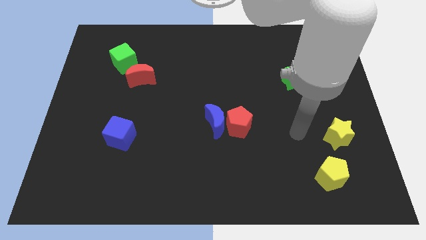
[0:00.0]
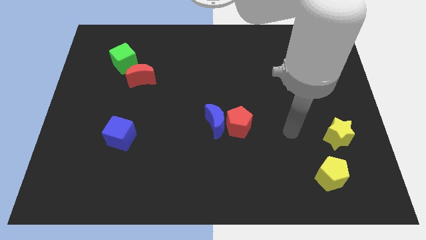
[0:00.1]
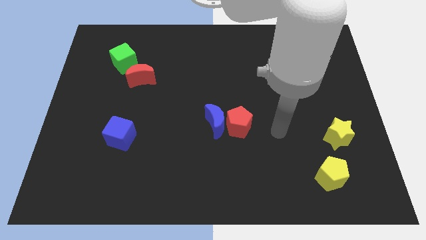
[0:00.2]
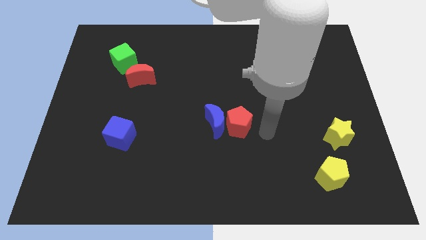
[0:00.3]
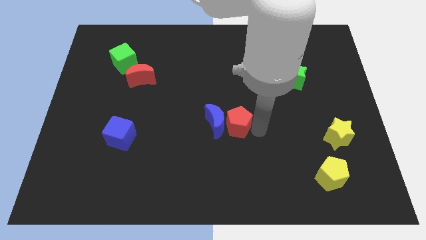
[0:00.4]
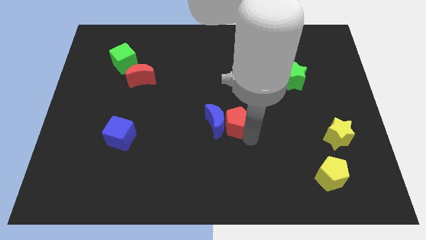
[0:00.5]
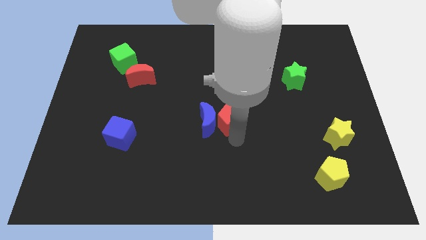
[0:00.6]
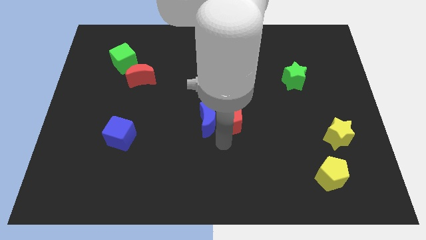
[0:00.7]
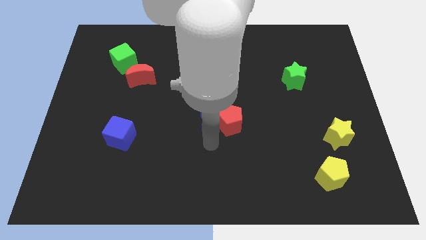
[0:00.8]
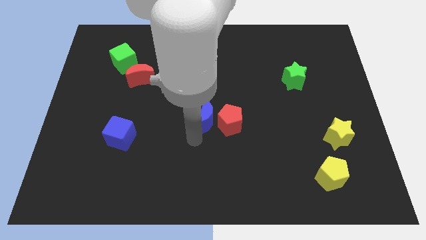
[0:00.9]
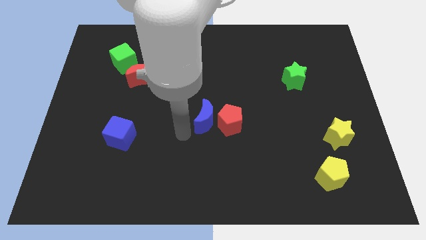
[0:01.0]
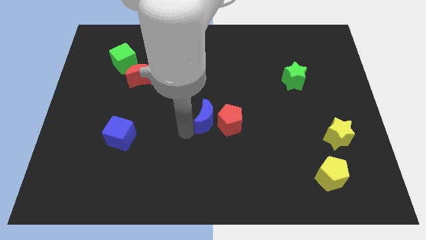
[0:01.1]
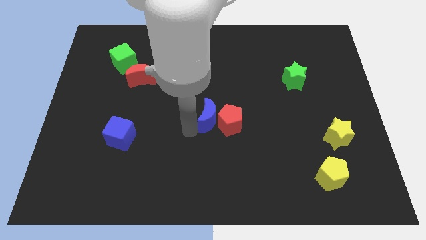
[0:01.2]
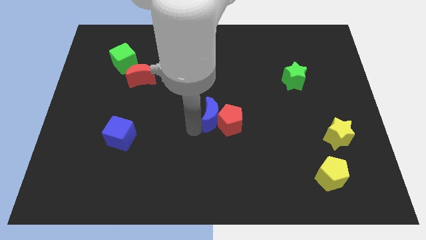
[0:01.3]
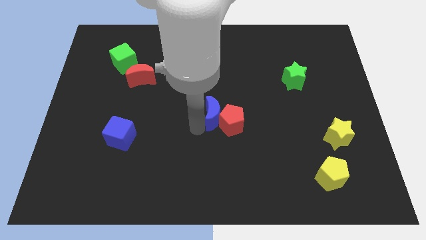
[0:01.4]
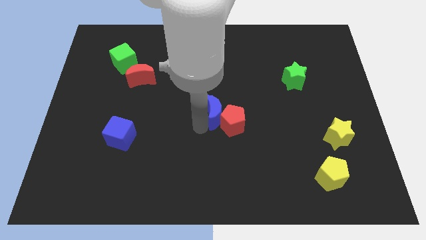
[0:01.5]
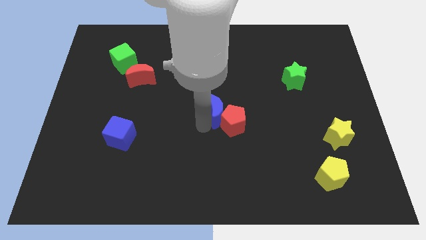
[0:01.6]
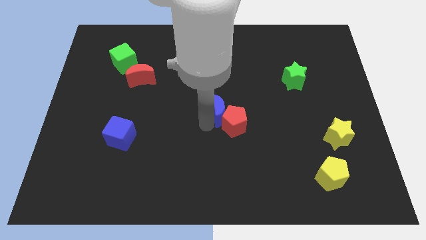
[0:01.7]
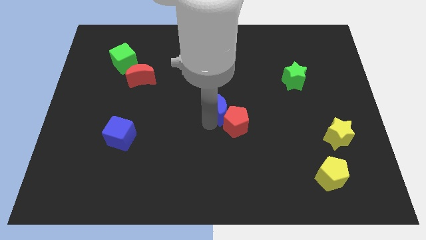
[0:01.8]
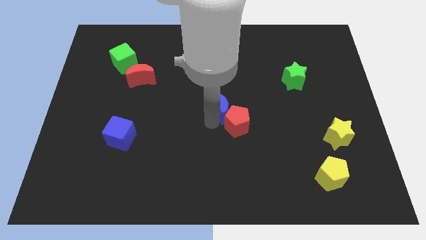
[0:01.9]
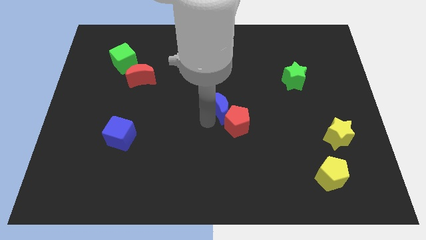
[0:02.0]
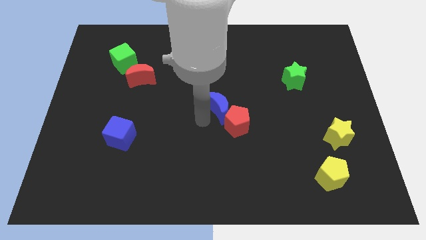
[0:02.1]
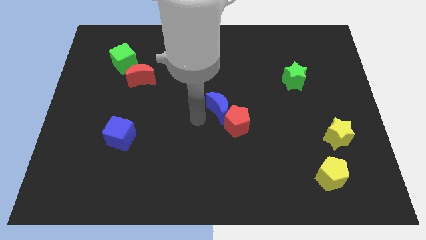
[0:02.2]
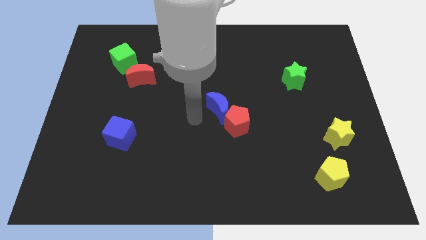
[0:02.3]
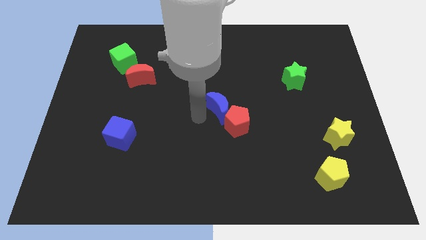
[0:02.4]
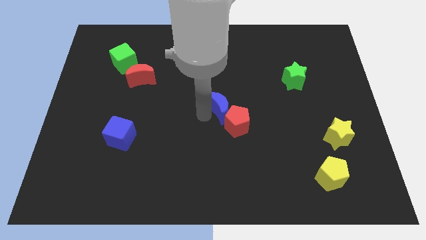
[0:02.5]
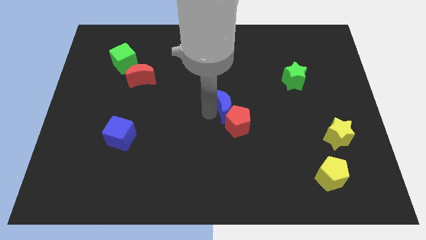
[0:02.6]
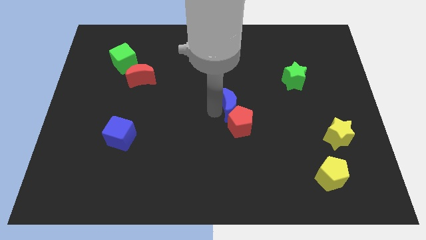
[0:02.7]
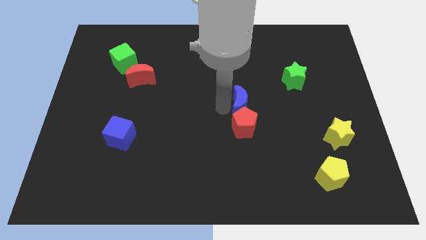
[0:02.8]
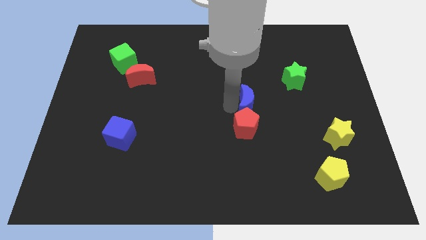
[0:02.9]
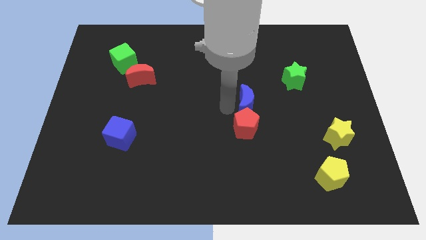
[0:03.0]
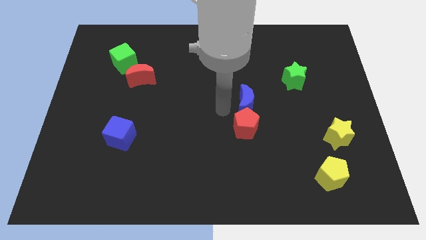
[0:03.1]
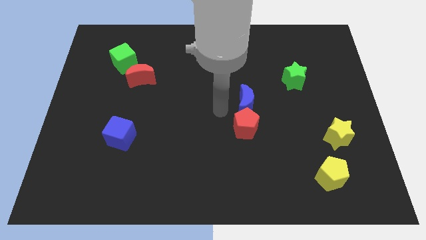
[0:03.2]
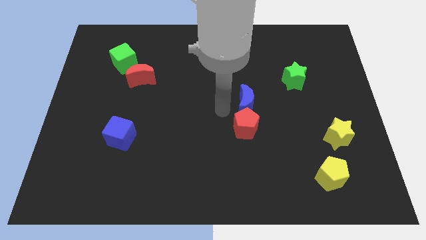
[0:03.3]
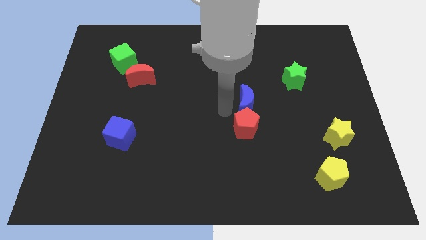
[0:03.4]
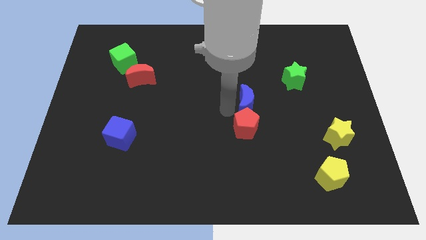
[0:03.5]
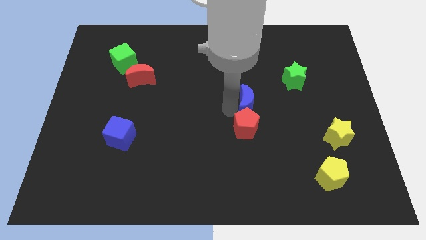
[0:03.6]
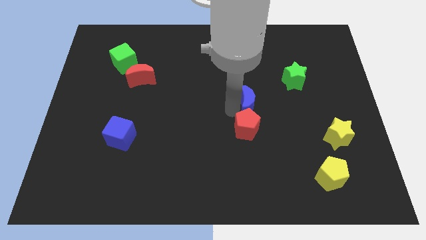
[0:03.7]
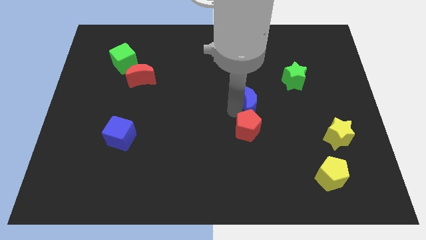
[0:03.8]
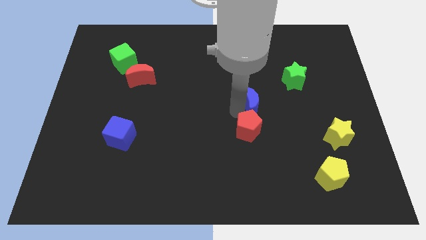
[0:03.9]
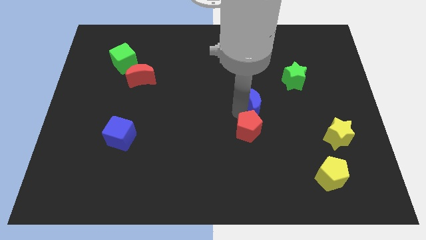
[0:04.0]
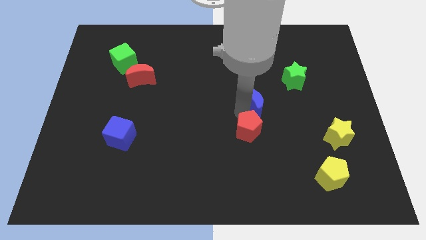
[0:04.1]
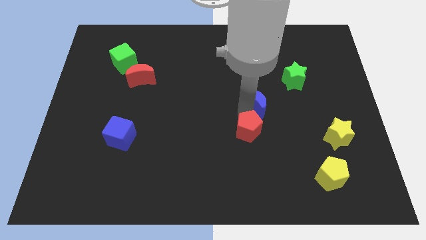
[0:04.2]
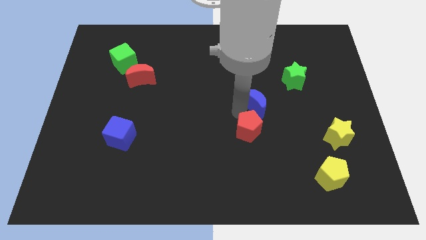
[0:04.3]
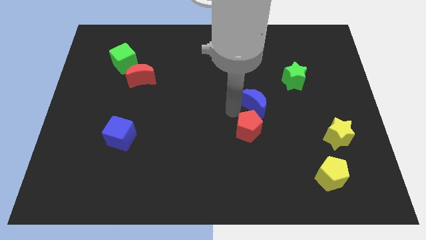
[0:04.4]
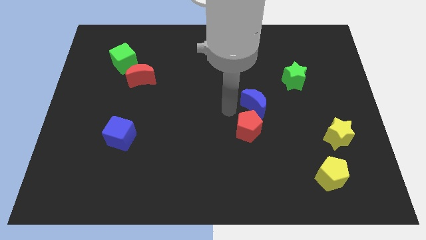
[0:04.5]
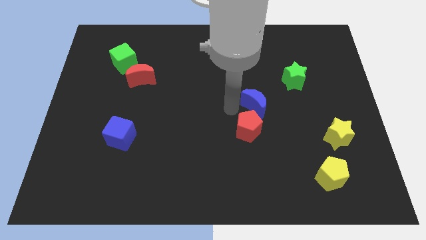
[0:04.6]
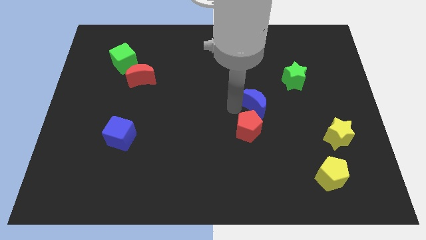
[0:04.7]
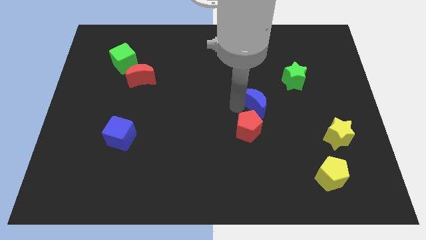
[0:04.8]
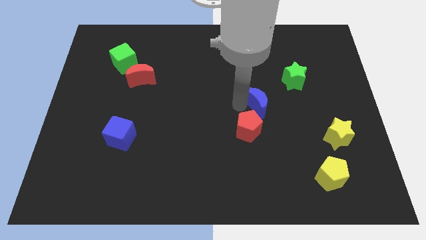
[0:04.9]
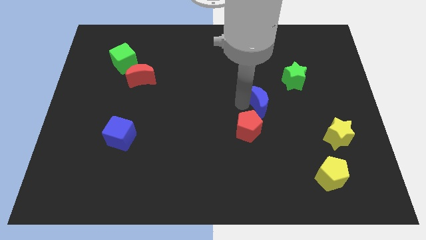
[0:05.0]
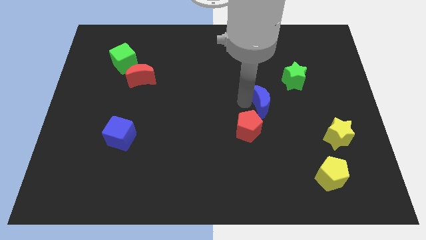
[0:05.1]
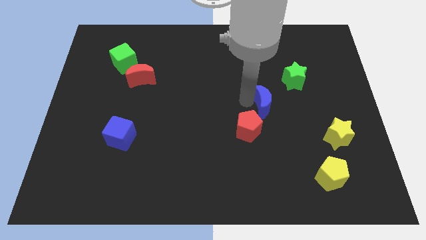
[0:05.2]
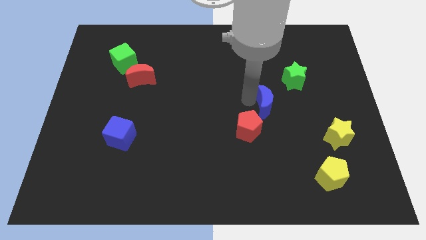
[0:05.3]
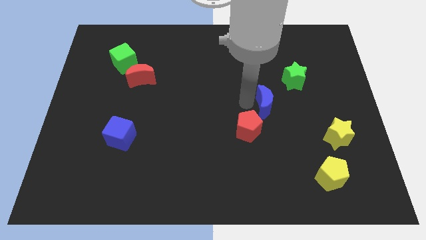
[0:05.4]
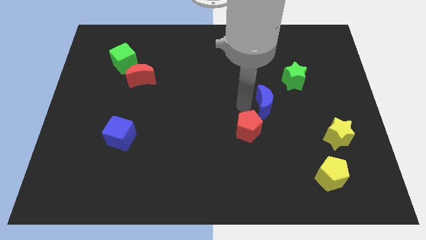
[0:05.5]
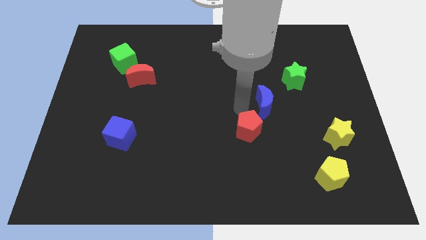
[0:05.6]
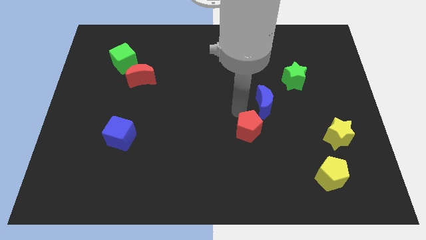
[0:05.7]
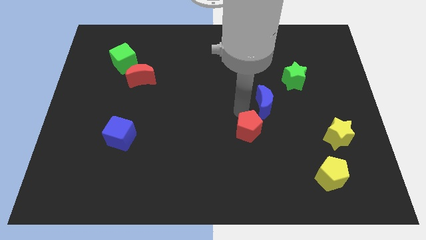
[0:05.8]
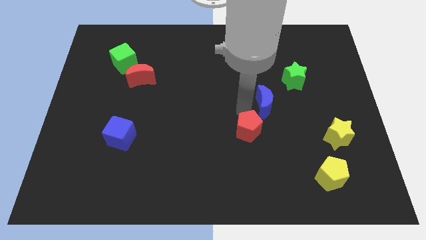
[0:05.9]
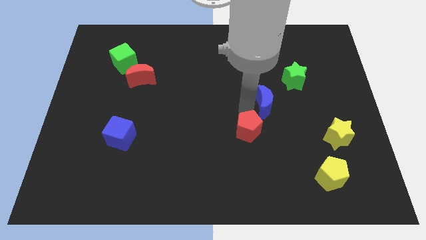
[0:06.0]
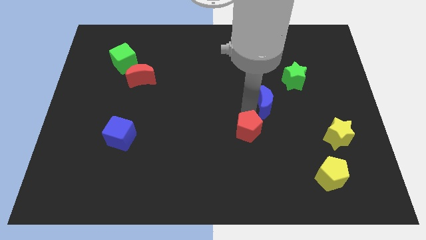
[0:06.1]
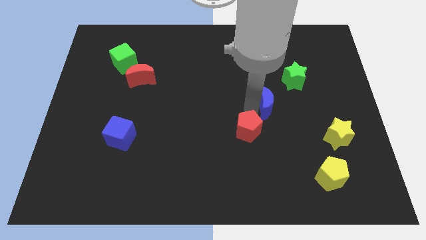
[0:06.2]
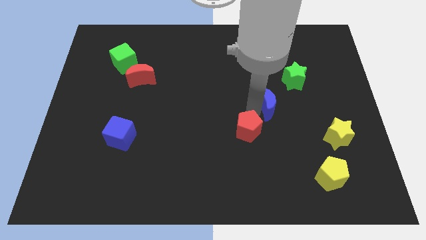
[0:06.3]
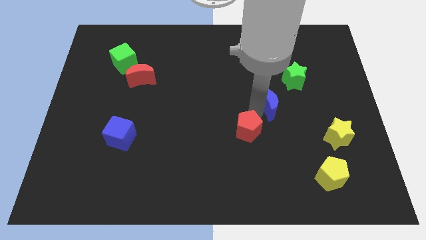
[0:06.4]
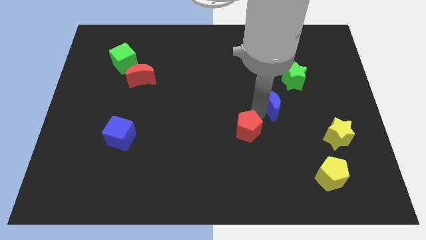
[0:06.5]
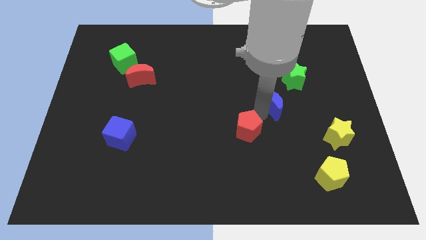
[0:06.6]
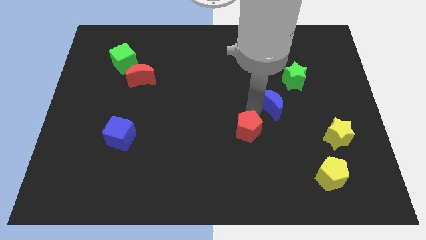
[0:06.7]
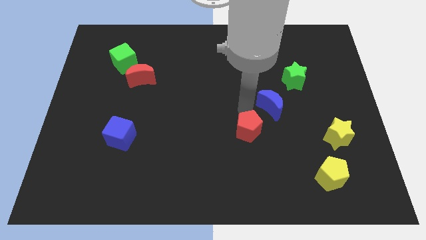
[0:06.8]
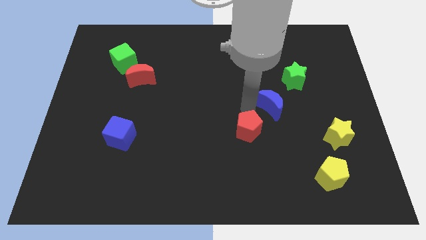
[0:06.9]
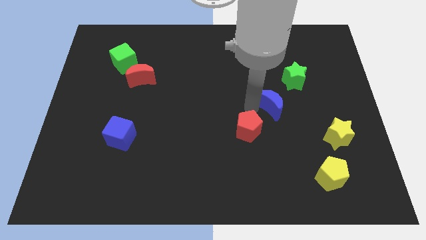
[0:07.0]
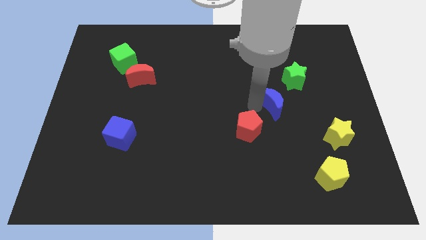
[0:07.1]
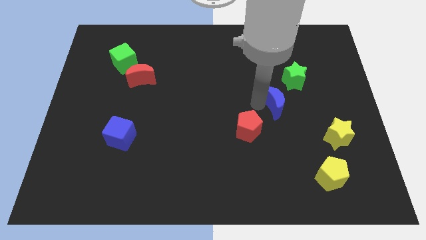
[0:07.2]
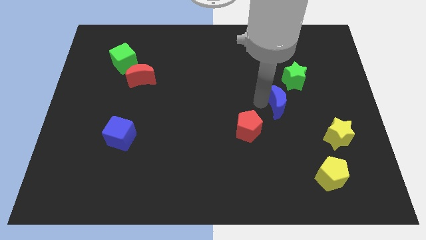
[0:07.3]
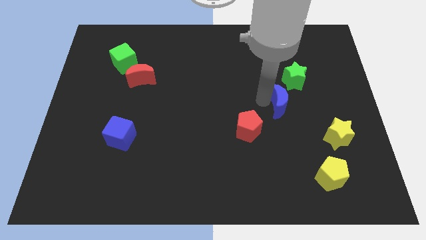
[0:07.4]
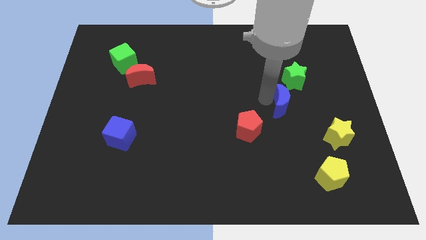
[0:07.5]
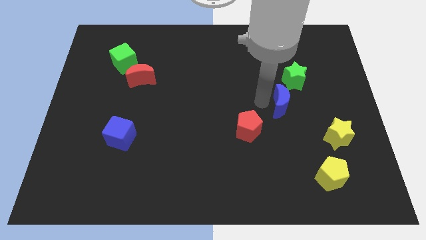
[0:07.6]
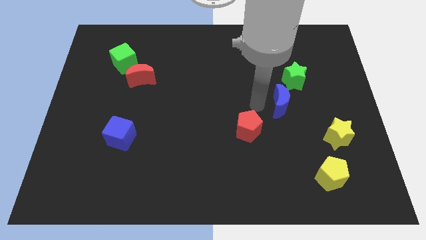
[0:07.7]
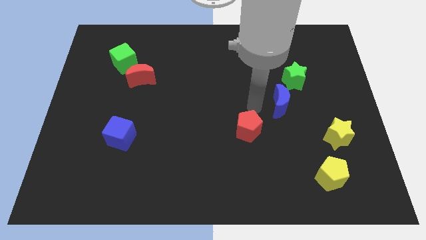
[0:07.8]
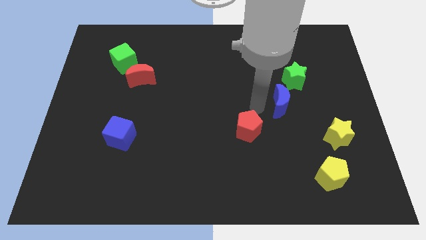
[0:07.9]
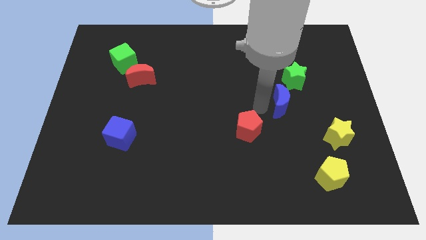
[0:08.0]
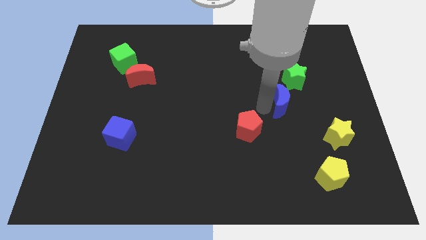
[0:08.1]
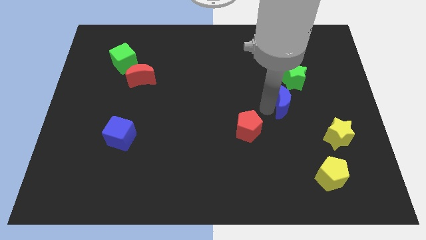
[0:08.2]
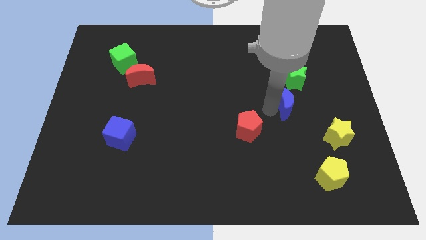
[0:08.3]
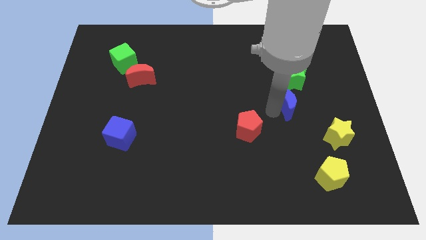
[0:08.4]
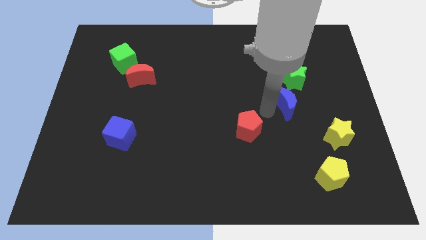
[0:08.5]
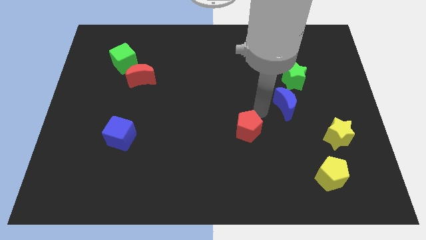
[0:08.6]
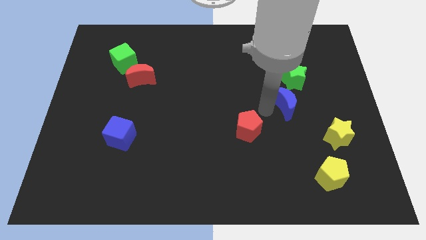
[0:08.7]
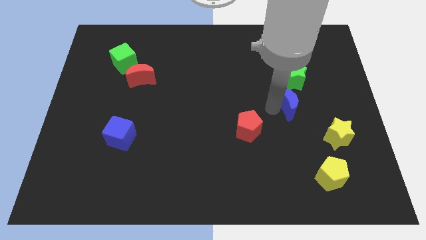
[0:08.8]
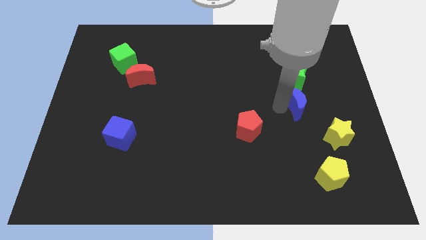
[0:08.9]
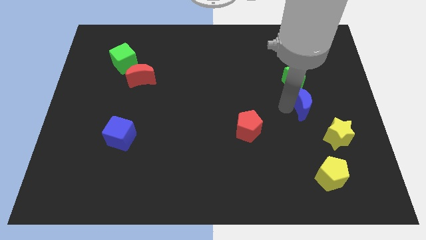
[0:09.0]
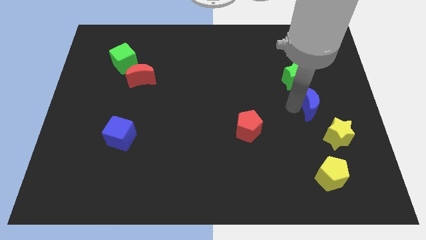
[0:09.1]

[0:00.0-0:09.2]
push the blue moon to the top side of the yellow star
